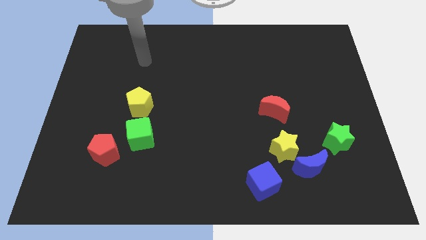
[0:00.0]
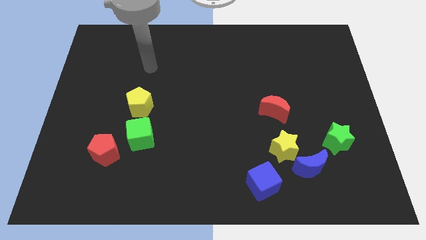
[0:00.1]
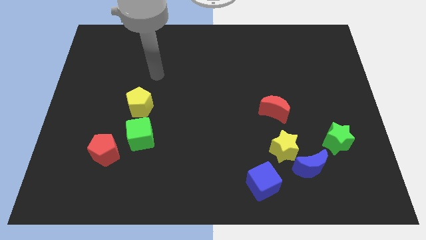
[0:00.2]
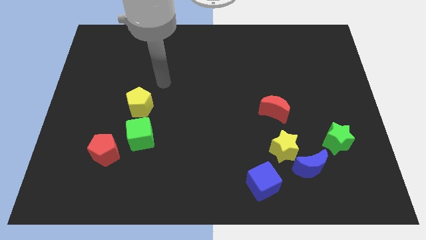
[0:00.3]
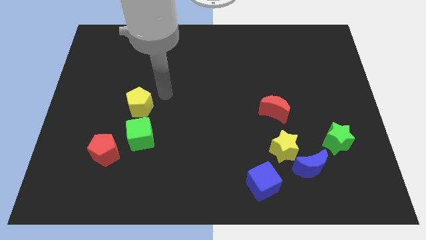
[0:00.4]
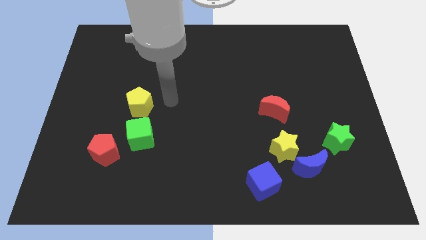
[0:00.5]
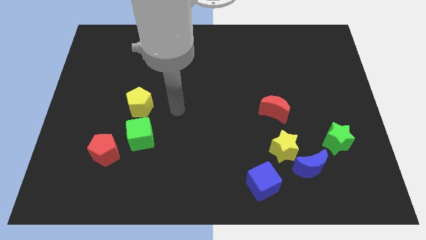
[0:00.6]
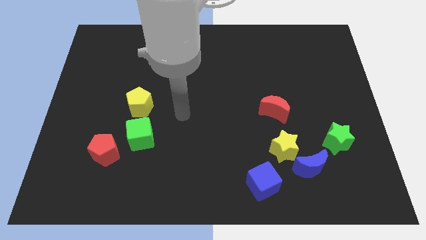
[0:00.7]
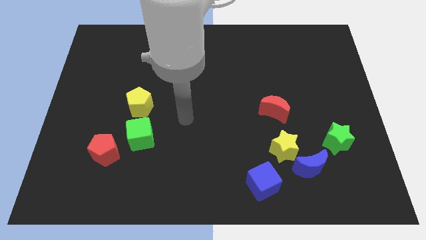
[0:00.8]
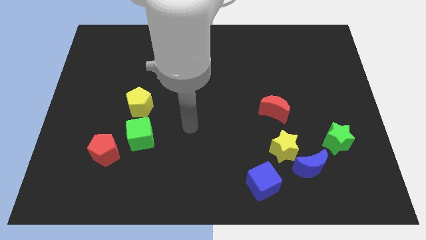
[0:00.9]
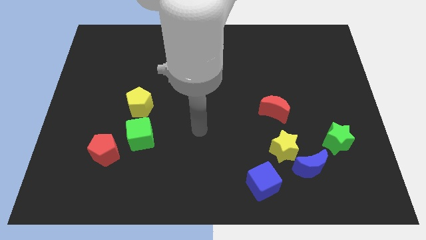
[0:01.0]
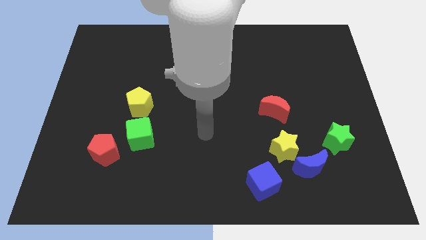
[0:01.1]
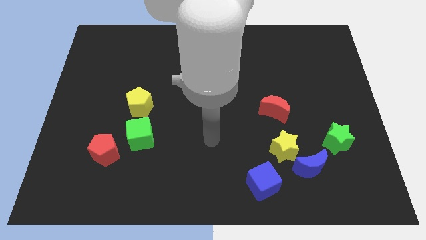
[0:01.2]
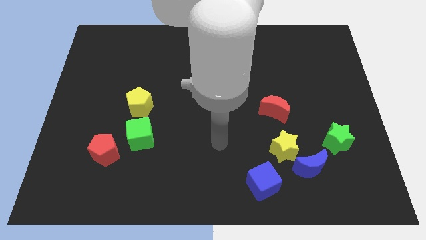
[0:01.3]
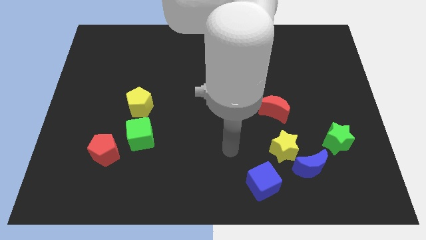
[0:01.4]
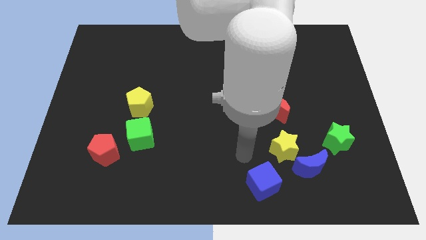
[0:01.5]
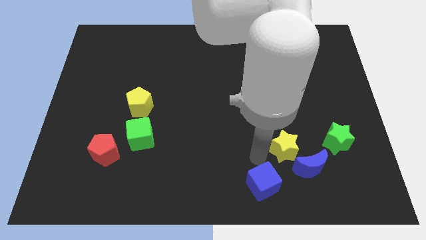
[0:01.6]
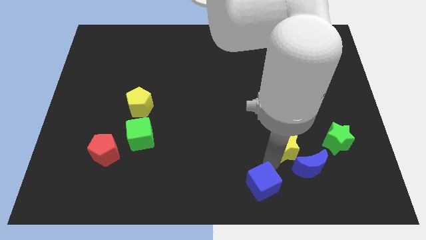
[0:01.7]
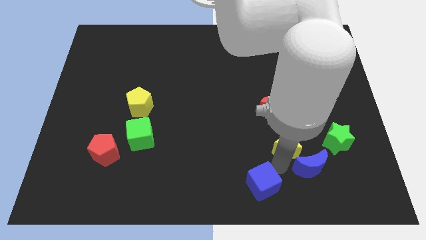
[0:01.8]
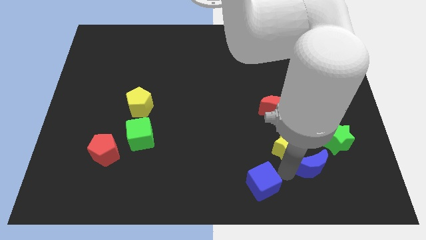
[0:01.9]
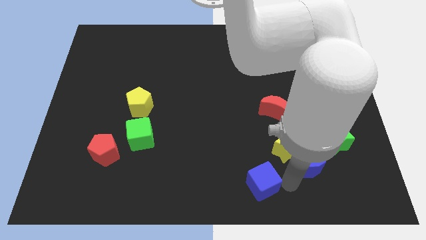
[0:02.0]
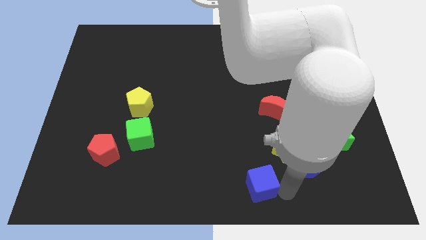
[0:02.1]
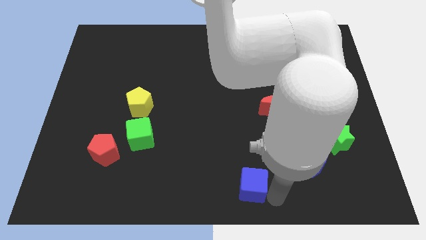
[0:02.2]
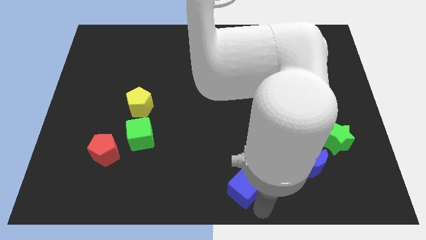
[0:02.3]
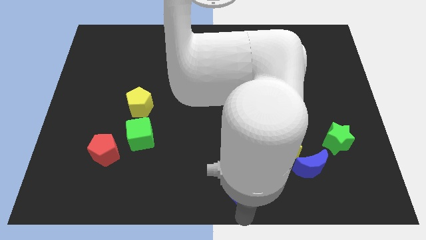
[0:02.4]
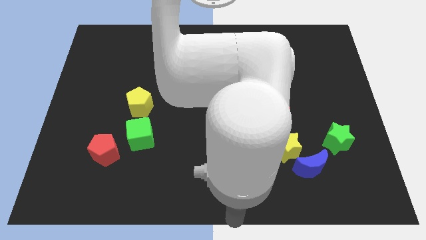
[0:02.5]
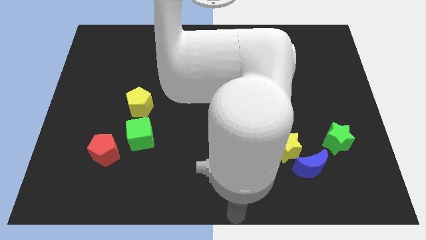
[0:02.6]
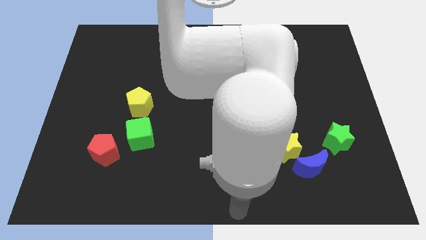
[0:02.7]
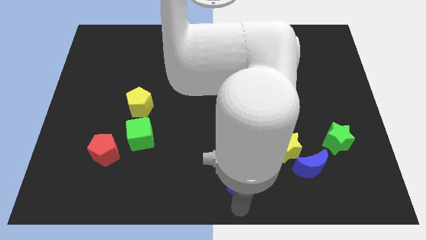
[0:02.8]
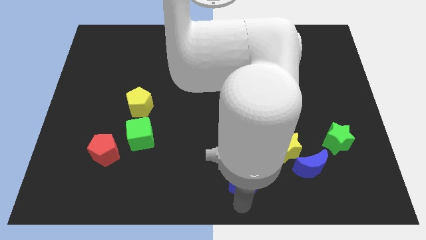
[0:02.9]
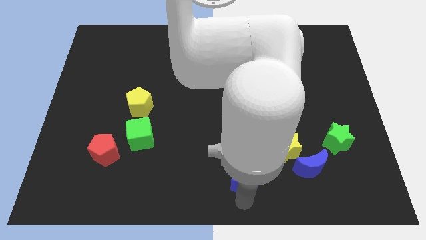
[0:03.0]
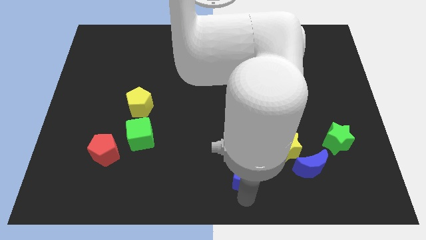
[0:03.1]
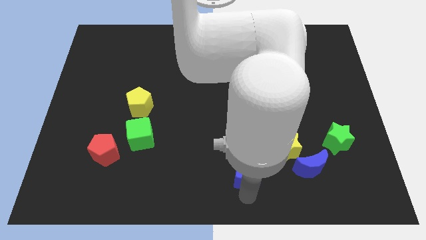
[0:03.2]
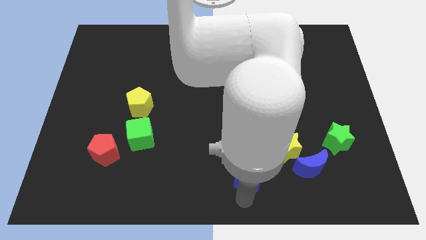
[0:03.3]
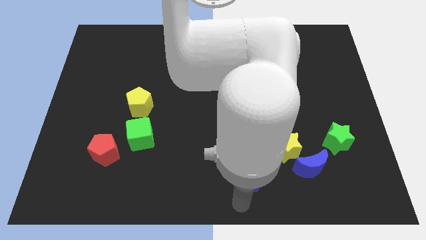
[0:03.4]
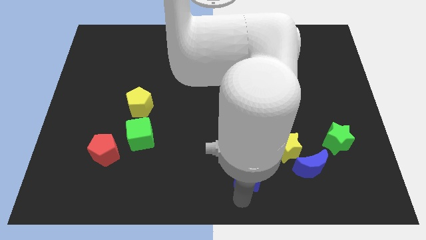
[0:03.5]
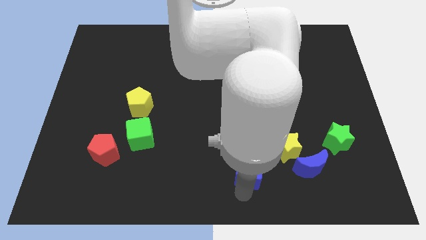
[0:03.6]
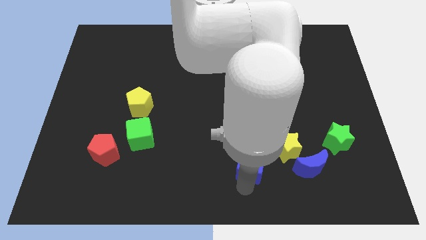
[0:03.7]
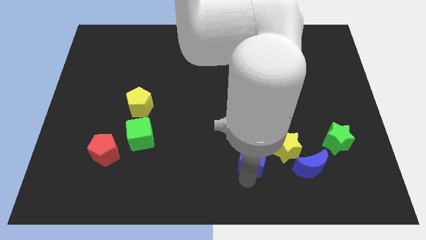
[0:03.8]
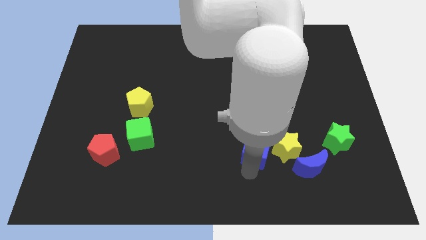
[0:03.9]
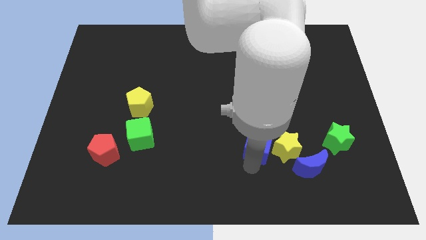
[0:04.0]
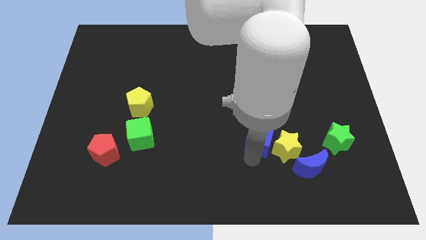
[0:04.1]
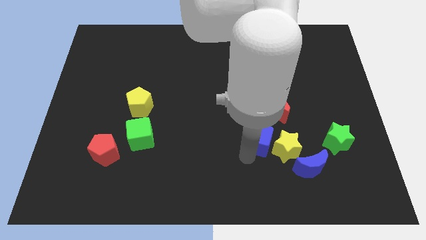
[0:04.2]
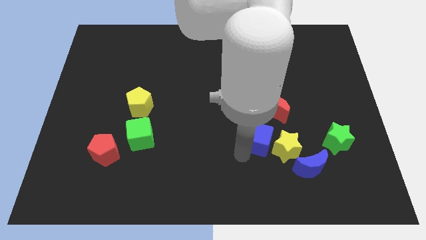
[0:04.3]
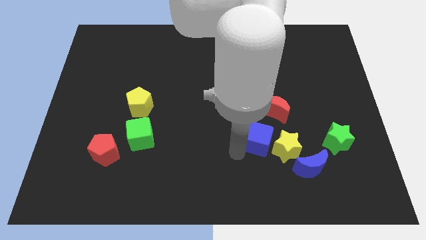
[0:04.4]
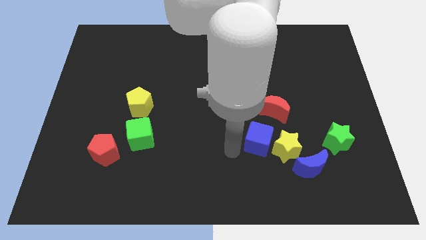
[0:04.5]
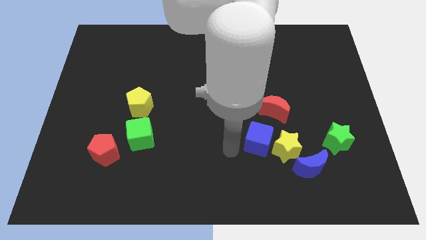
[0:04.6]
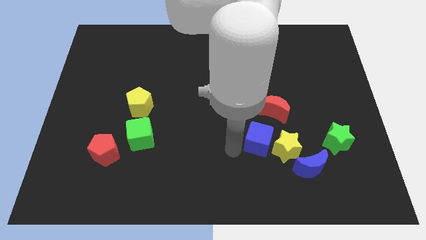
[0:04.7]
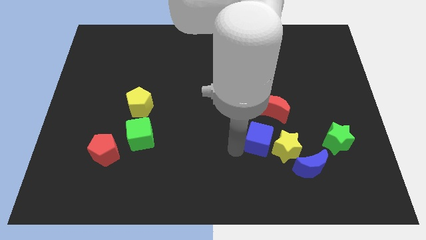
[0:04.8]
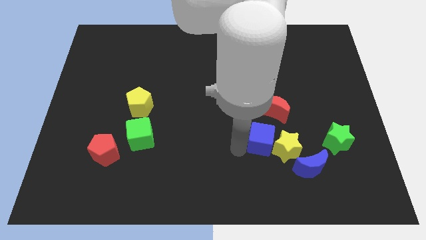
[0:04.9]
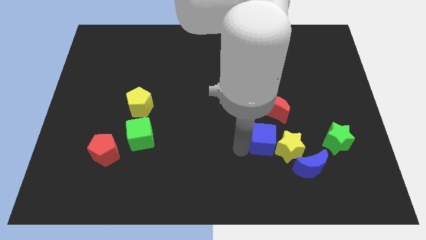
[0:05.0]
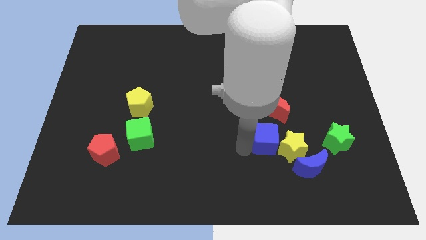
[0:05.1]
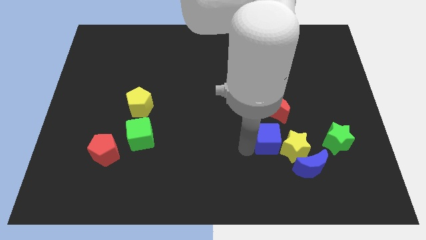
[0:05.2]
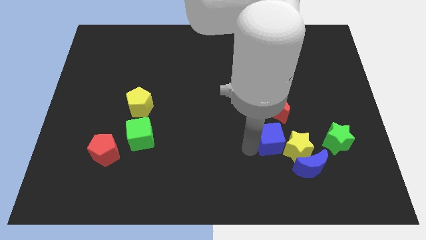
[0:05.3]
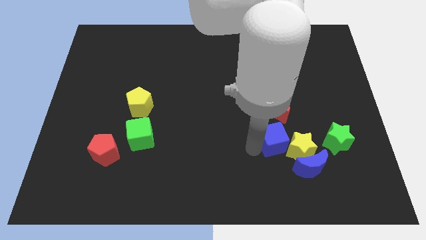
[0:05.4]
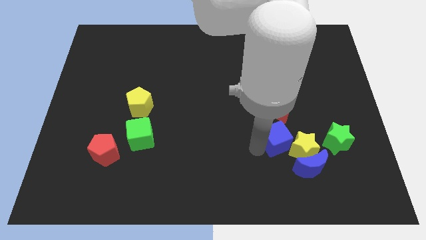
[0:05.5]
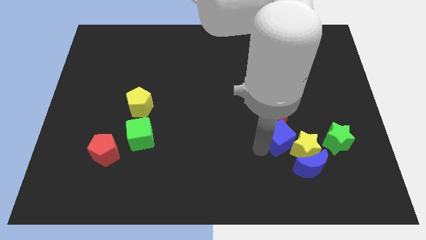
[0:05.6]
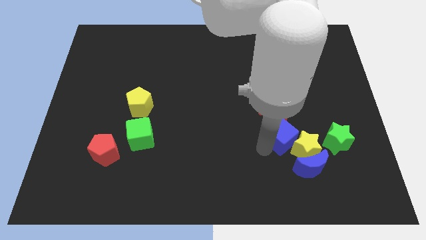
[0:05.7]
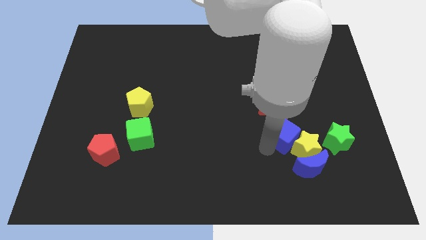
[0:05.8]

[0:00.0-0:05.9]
move the blue cube to the top side of the blue moon

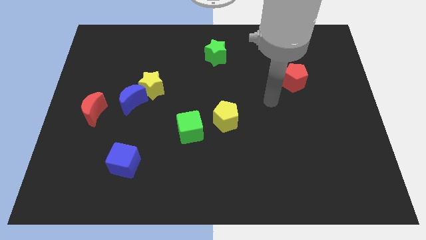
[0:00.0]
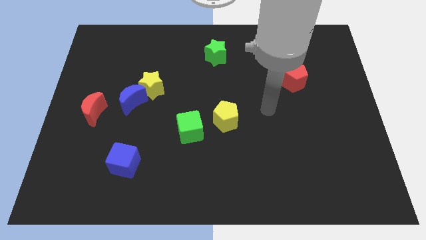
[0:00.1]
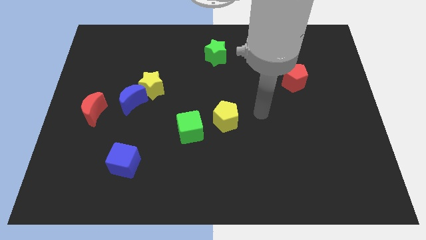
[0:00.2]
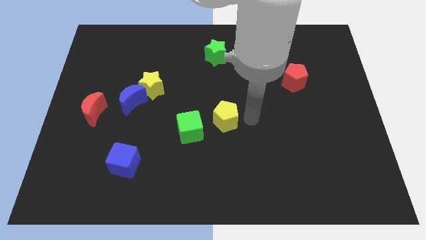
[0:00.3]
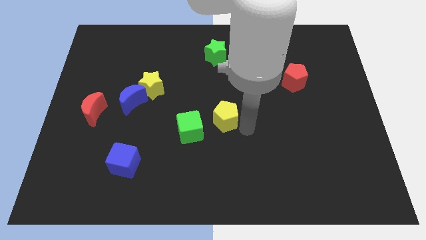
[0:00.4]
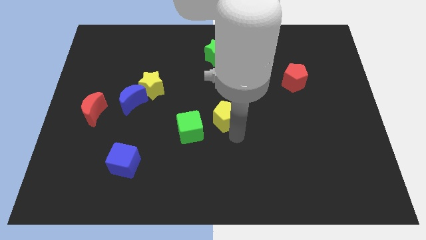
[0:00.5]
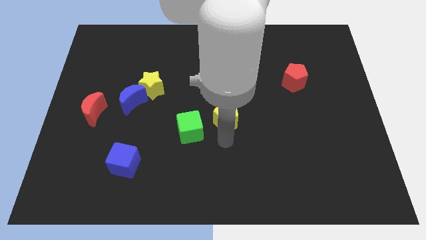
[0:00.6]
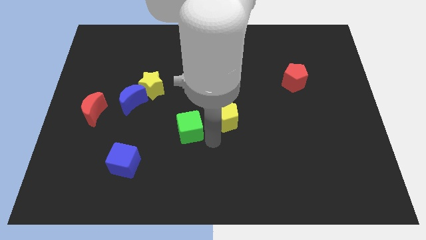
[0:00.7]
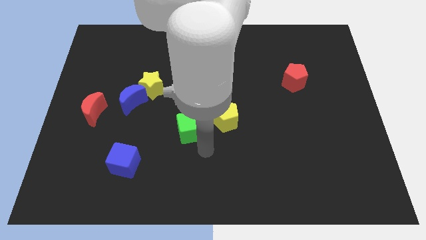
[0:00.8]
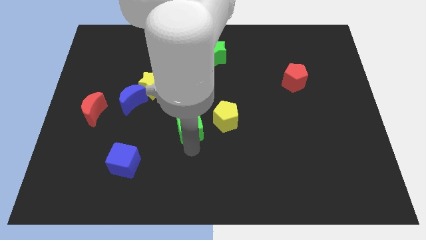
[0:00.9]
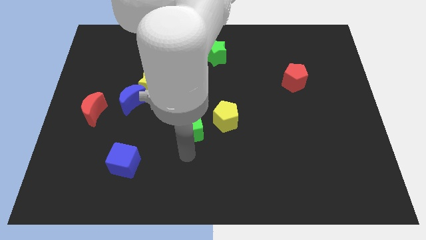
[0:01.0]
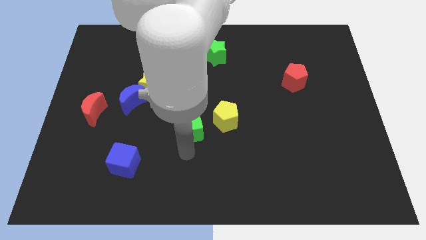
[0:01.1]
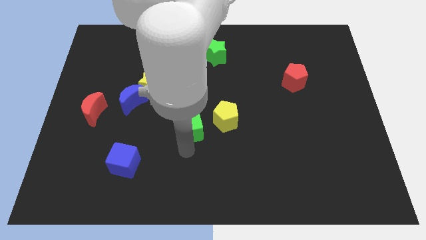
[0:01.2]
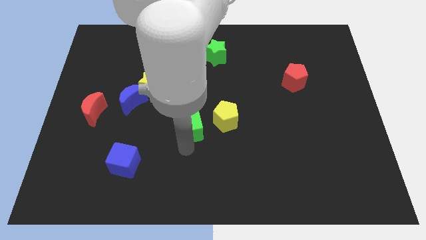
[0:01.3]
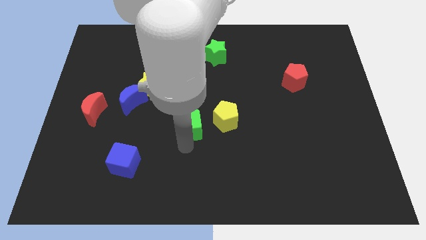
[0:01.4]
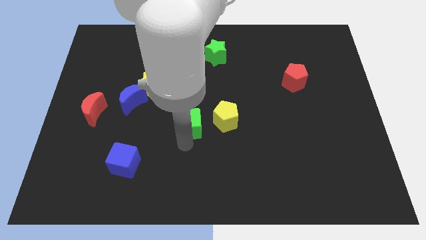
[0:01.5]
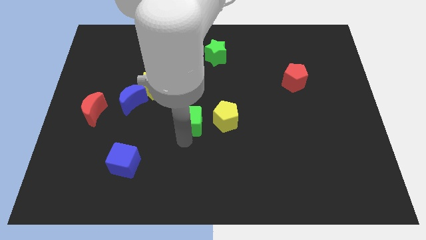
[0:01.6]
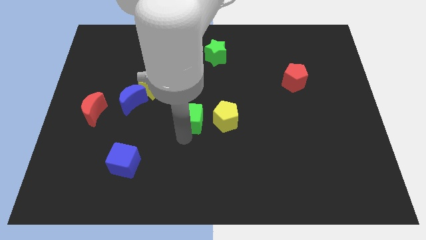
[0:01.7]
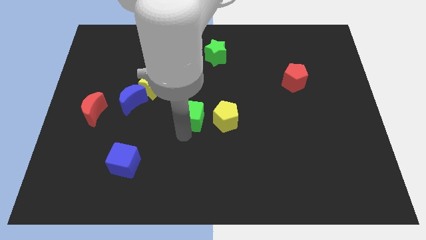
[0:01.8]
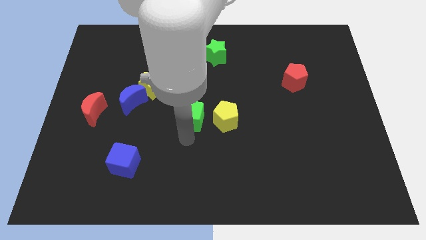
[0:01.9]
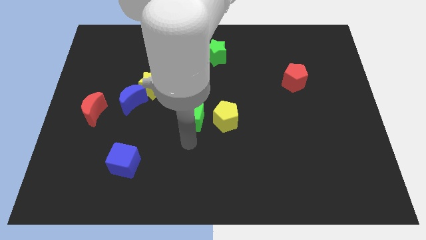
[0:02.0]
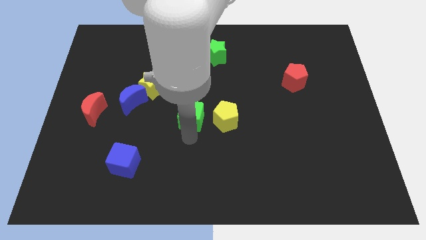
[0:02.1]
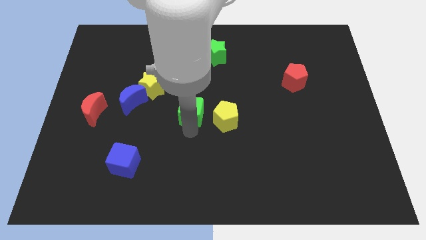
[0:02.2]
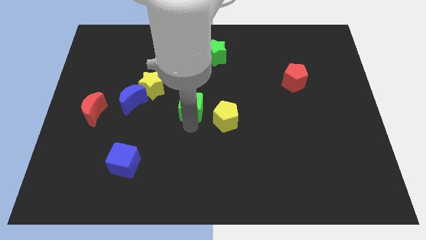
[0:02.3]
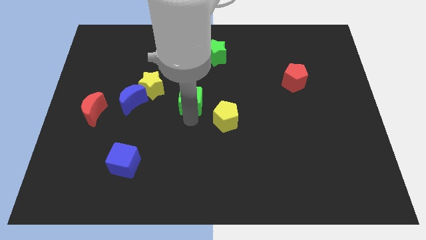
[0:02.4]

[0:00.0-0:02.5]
put the green cube just right of the yellow star
